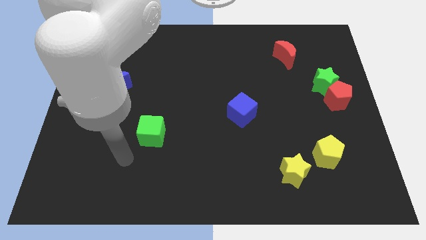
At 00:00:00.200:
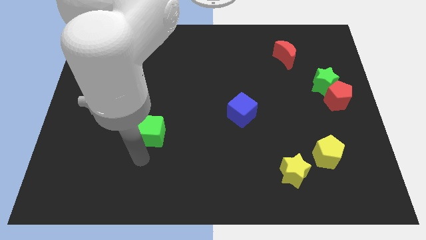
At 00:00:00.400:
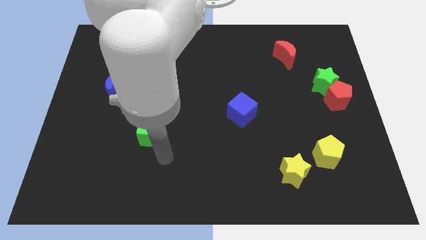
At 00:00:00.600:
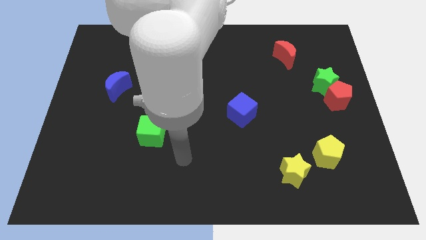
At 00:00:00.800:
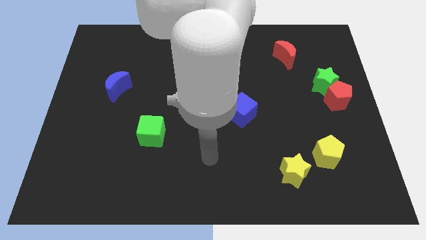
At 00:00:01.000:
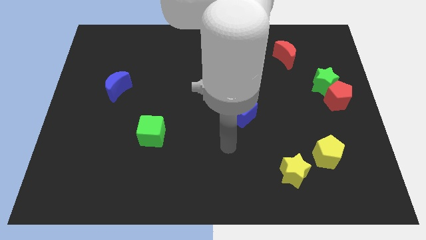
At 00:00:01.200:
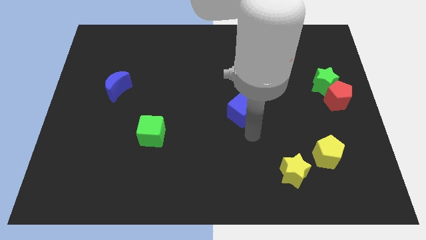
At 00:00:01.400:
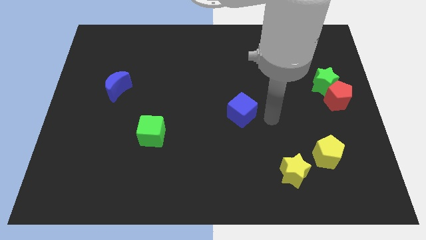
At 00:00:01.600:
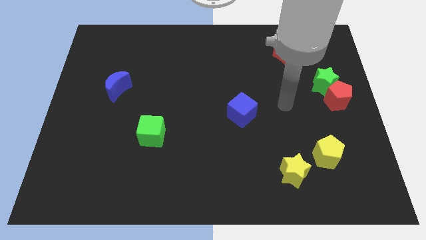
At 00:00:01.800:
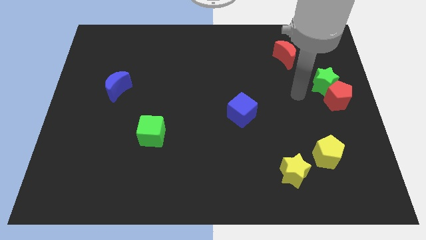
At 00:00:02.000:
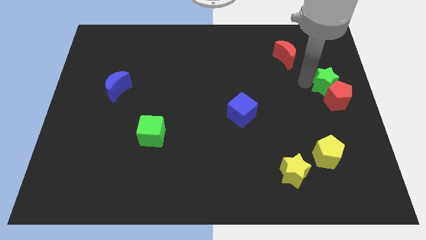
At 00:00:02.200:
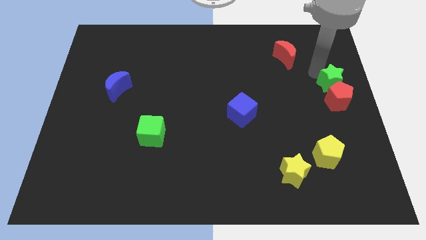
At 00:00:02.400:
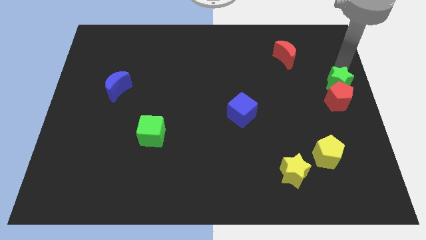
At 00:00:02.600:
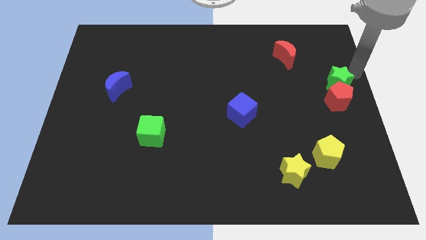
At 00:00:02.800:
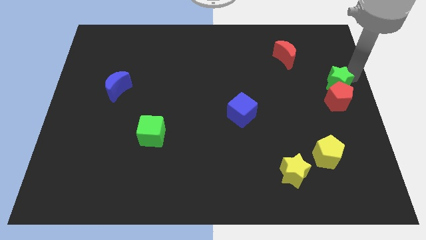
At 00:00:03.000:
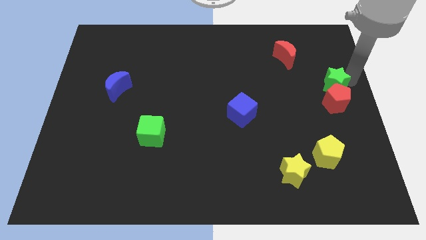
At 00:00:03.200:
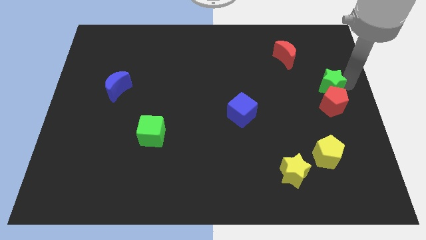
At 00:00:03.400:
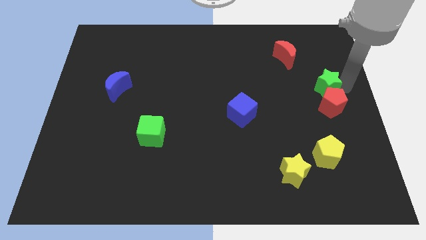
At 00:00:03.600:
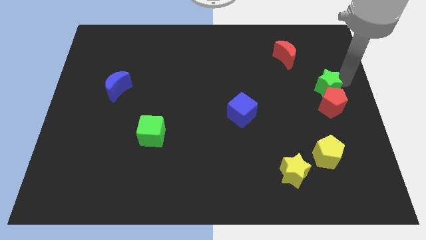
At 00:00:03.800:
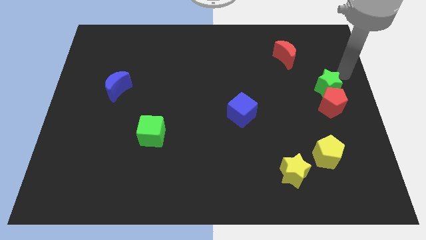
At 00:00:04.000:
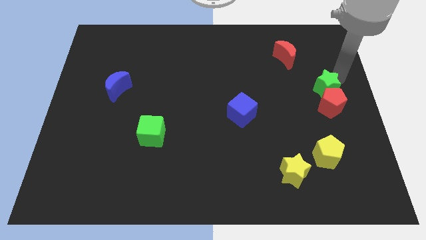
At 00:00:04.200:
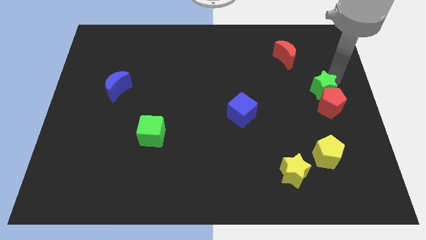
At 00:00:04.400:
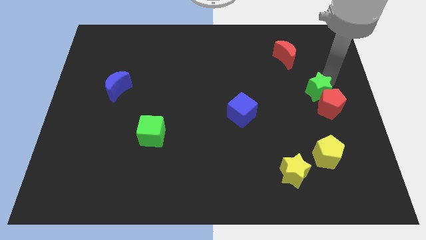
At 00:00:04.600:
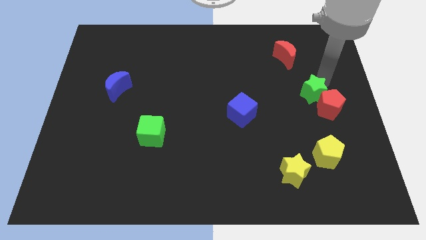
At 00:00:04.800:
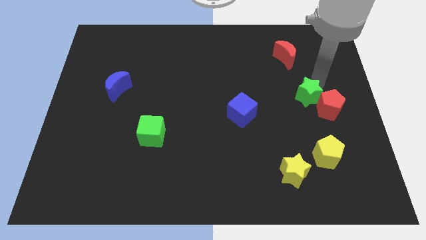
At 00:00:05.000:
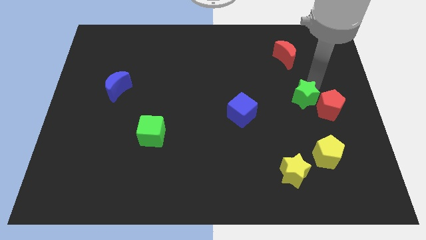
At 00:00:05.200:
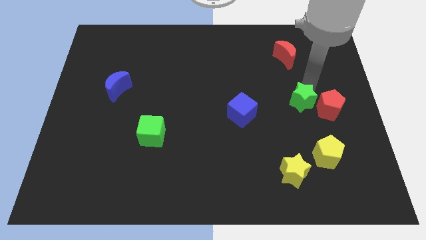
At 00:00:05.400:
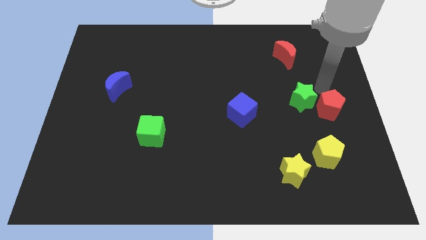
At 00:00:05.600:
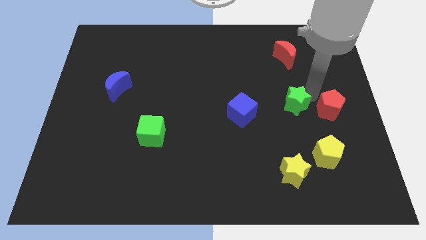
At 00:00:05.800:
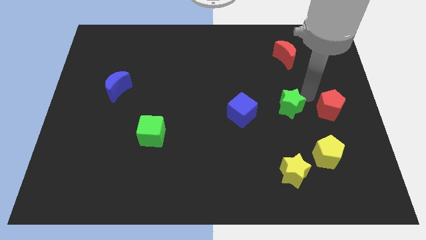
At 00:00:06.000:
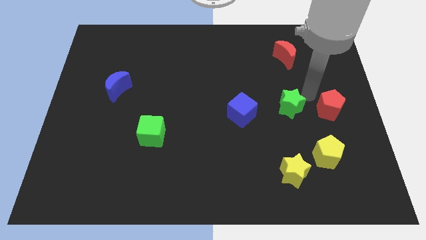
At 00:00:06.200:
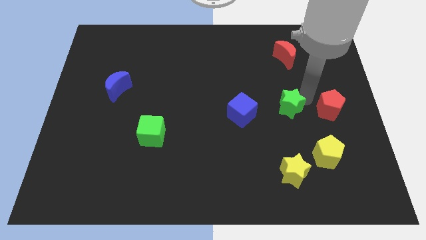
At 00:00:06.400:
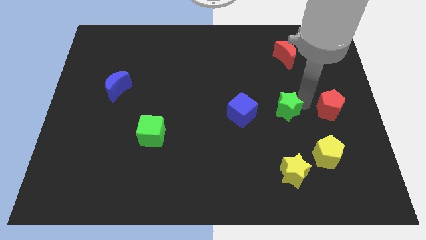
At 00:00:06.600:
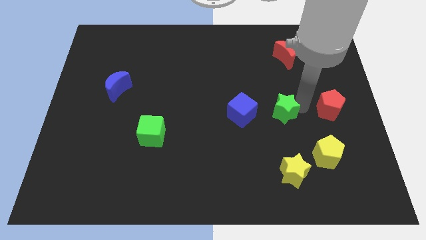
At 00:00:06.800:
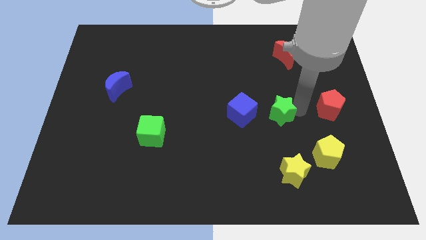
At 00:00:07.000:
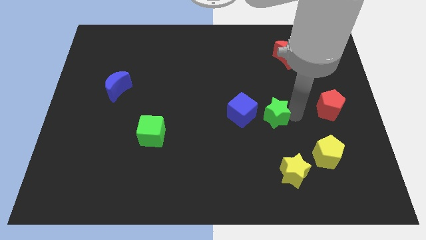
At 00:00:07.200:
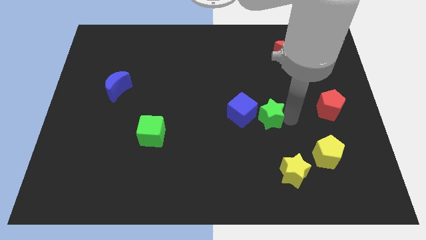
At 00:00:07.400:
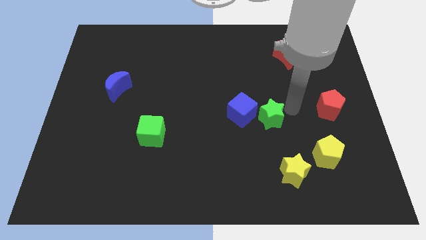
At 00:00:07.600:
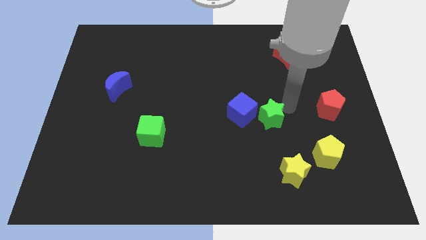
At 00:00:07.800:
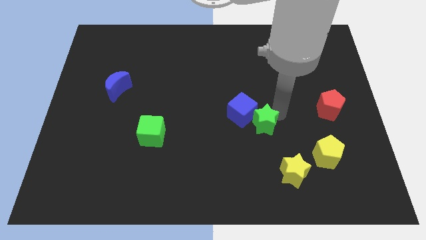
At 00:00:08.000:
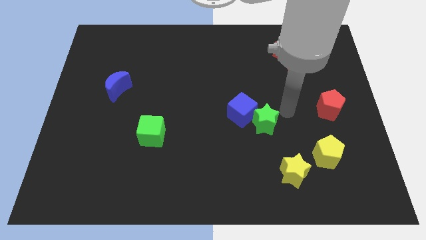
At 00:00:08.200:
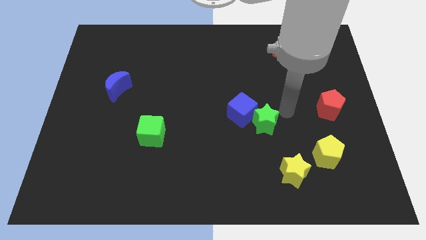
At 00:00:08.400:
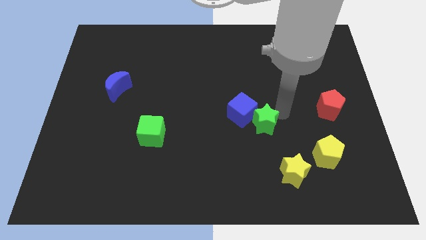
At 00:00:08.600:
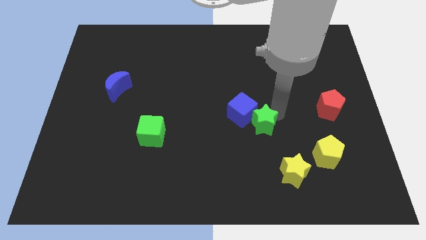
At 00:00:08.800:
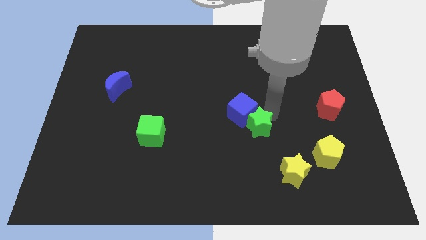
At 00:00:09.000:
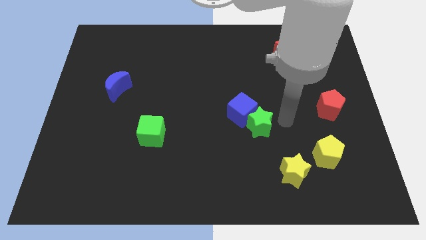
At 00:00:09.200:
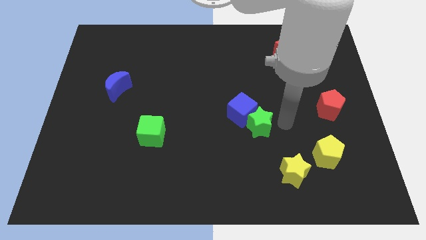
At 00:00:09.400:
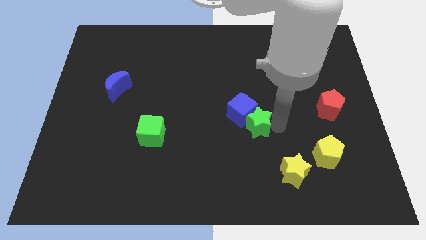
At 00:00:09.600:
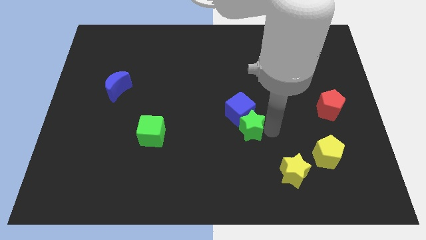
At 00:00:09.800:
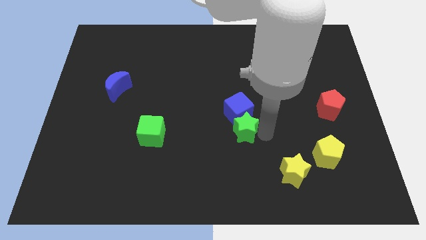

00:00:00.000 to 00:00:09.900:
slide the green star diagonally down and to the left of the blue cube

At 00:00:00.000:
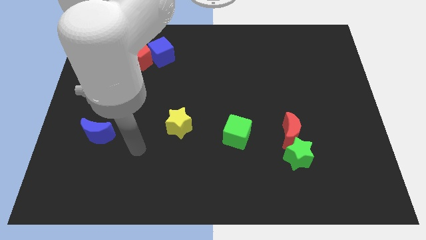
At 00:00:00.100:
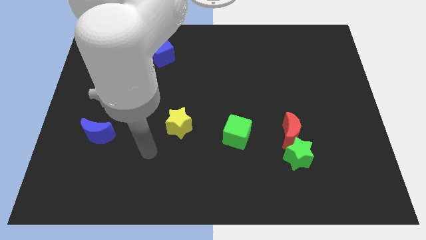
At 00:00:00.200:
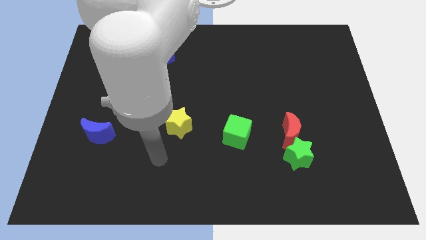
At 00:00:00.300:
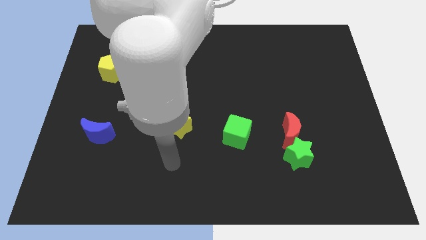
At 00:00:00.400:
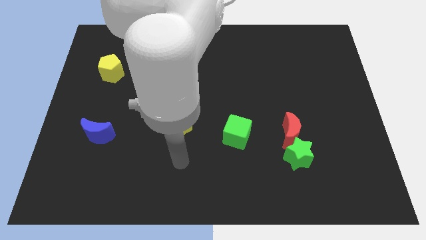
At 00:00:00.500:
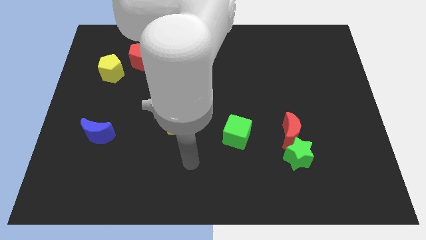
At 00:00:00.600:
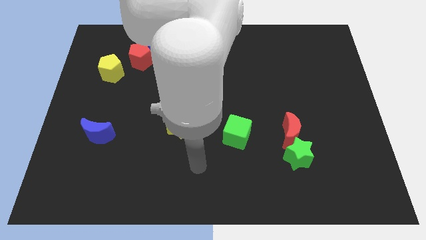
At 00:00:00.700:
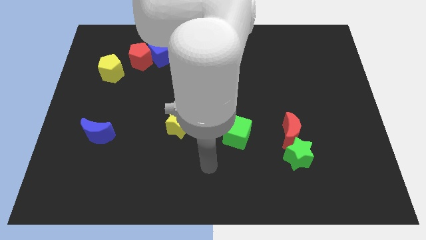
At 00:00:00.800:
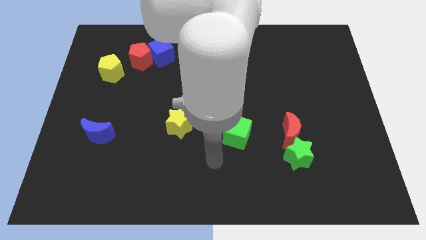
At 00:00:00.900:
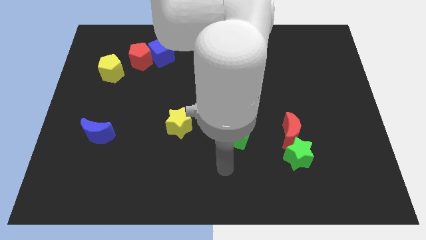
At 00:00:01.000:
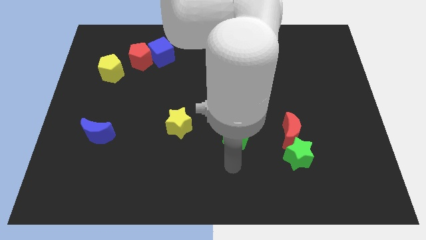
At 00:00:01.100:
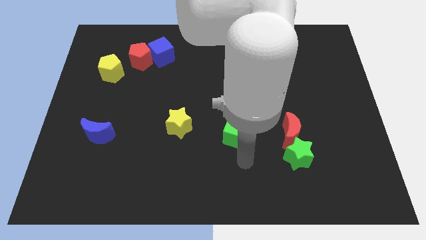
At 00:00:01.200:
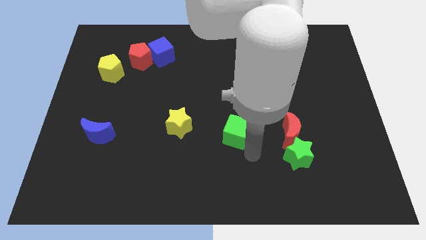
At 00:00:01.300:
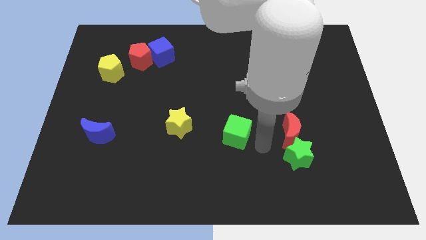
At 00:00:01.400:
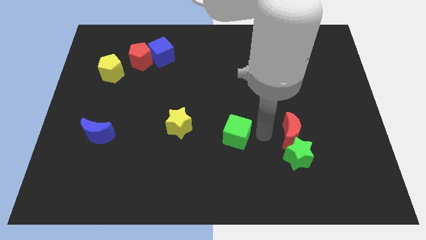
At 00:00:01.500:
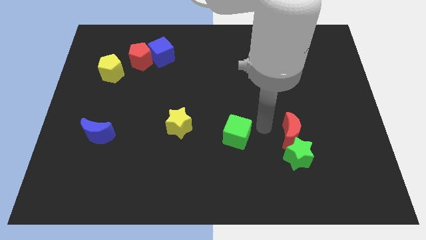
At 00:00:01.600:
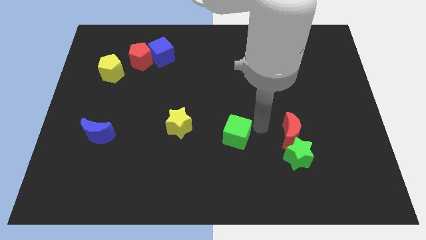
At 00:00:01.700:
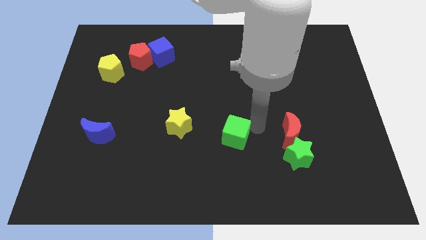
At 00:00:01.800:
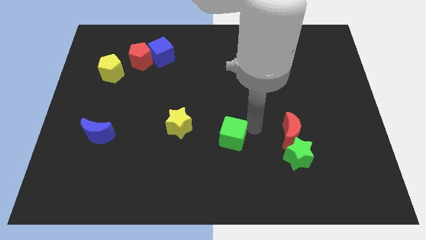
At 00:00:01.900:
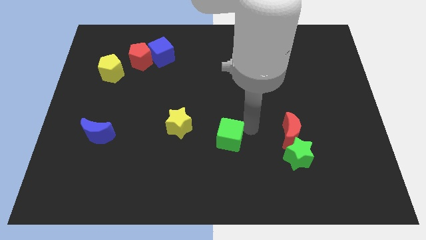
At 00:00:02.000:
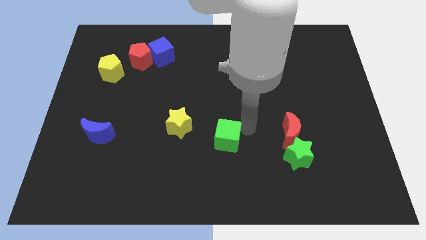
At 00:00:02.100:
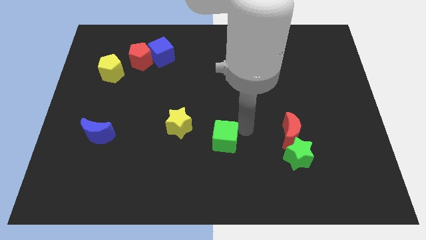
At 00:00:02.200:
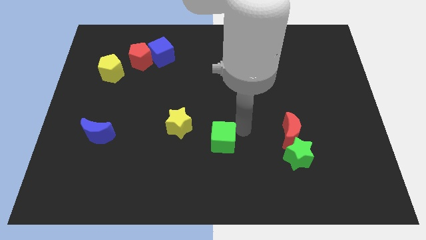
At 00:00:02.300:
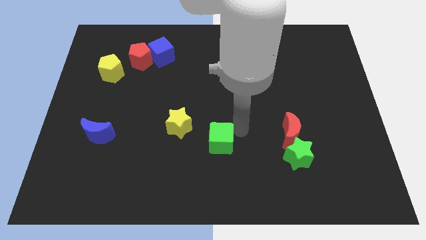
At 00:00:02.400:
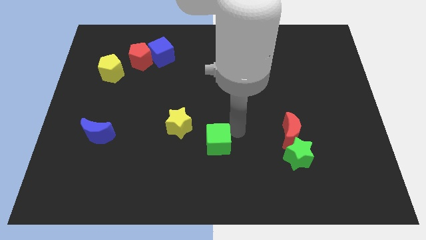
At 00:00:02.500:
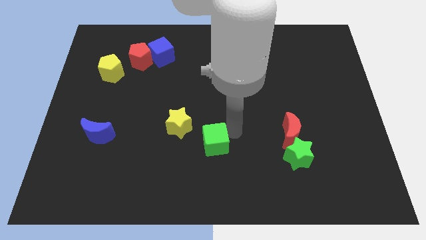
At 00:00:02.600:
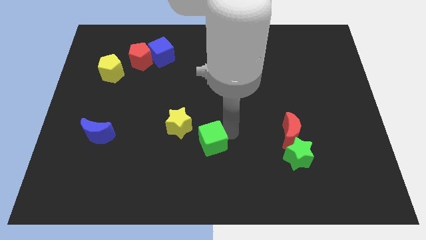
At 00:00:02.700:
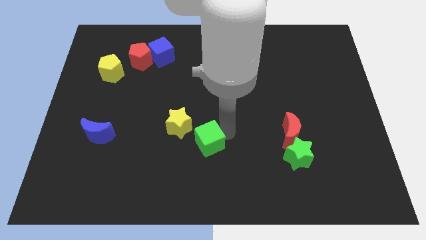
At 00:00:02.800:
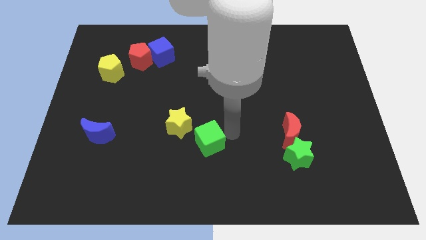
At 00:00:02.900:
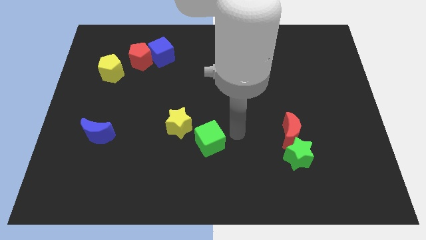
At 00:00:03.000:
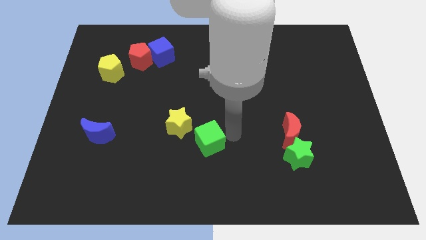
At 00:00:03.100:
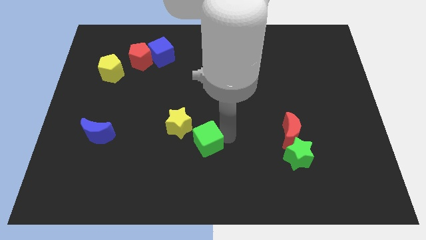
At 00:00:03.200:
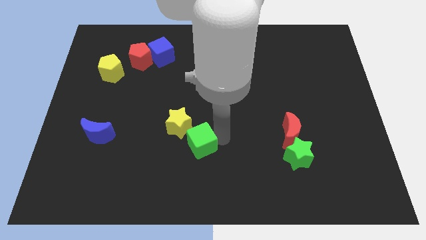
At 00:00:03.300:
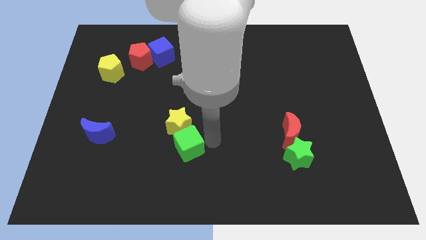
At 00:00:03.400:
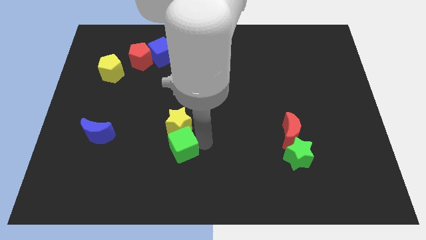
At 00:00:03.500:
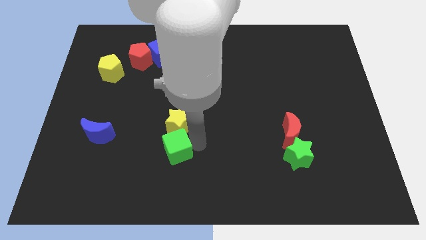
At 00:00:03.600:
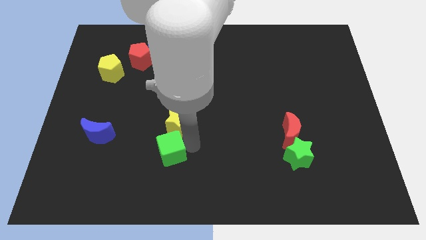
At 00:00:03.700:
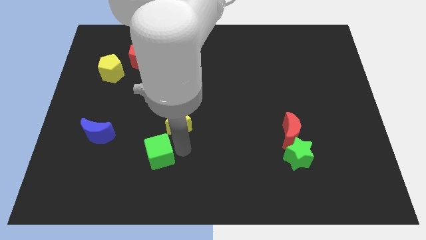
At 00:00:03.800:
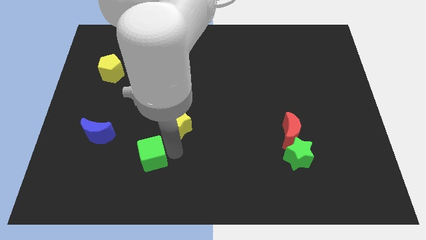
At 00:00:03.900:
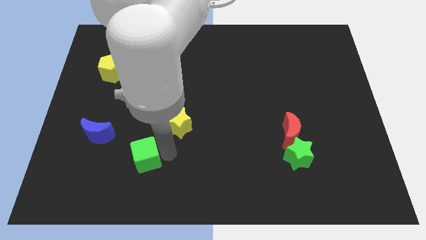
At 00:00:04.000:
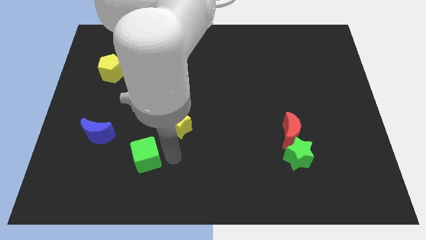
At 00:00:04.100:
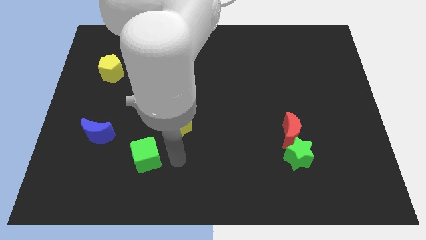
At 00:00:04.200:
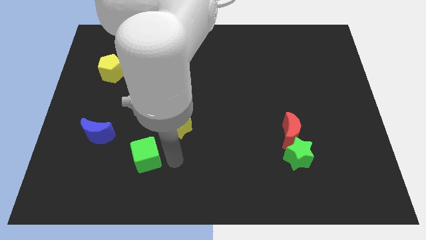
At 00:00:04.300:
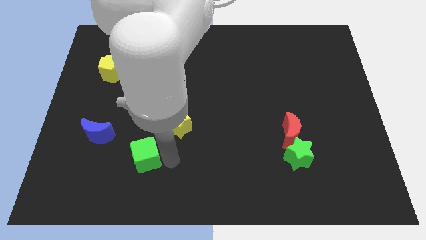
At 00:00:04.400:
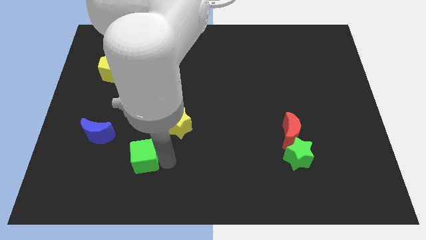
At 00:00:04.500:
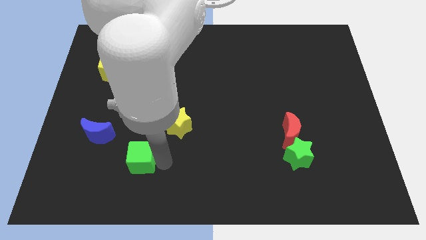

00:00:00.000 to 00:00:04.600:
put the green cube diagonally down and to the right of the blue moon
